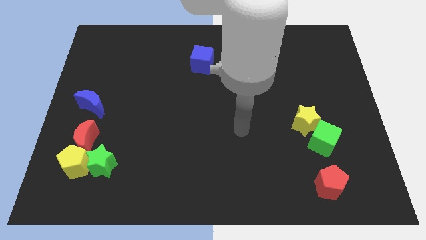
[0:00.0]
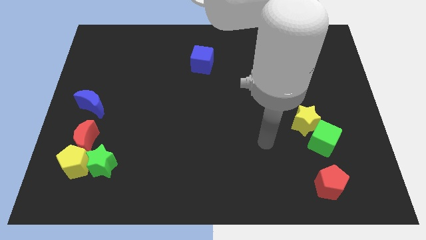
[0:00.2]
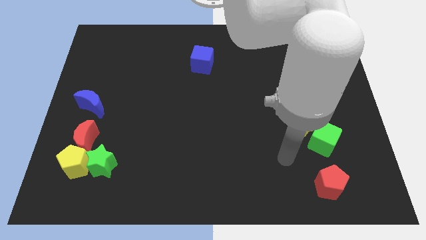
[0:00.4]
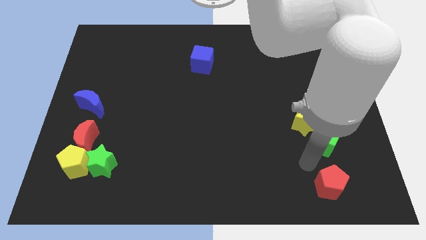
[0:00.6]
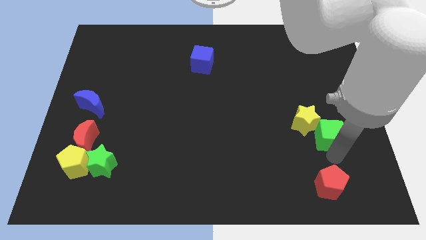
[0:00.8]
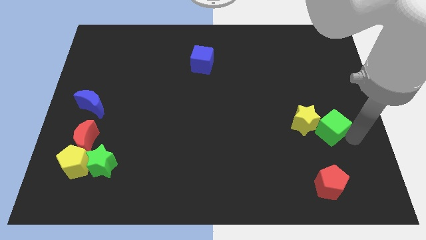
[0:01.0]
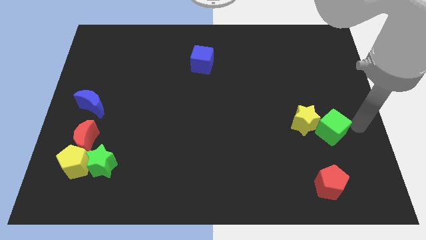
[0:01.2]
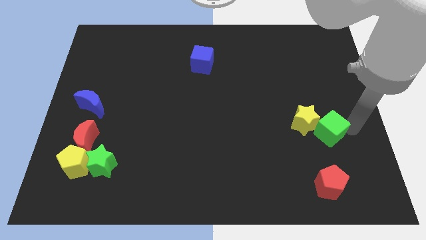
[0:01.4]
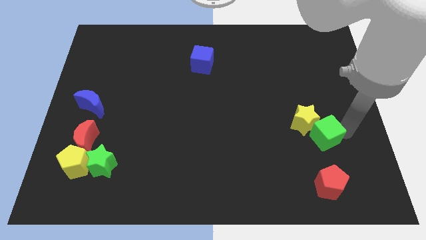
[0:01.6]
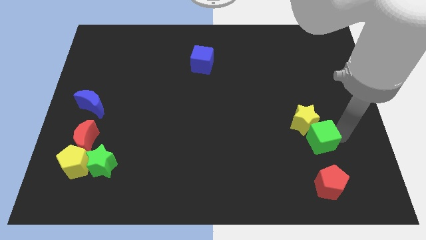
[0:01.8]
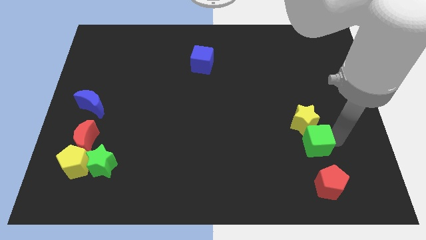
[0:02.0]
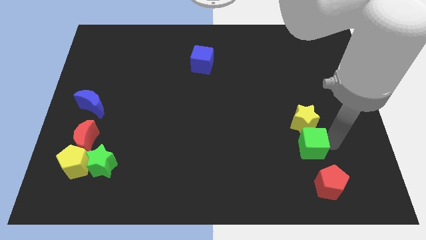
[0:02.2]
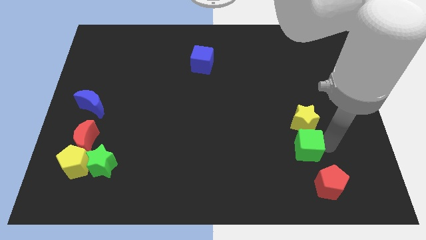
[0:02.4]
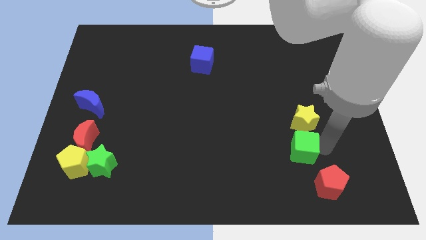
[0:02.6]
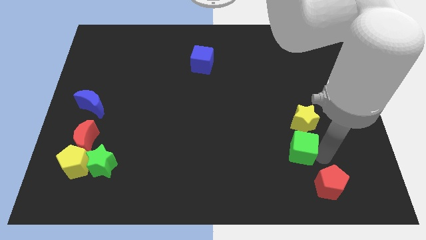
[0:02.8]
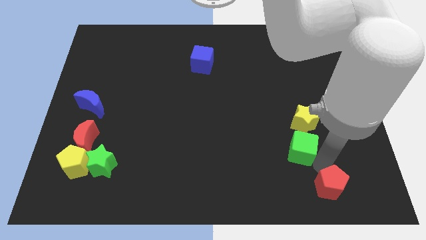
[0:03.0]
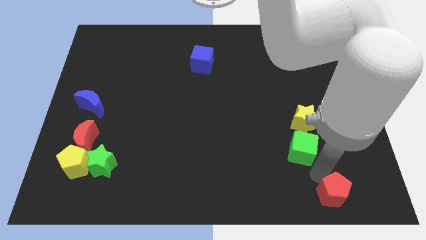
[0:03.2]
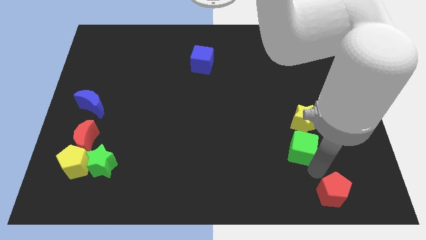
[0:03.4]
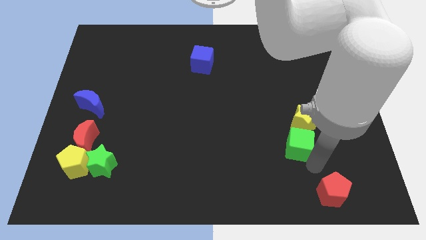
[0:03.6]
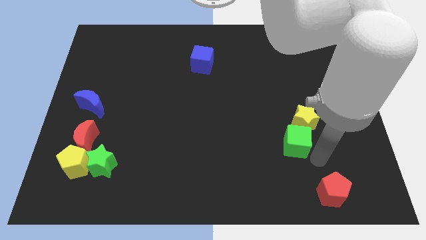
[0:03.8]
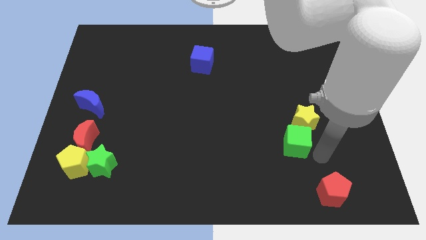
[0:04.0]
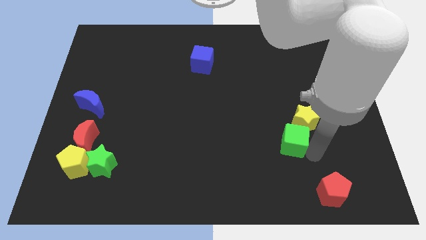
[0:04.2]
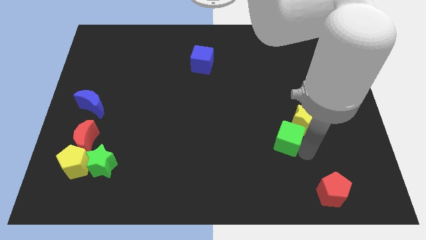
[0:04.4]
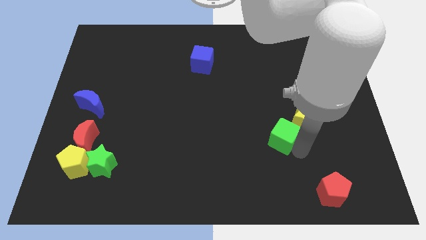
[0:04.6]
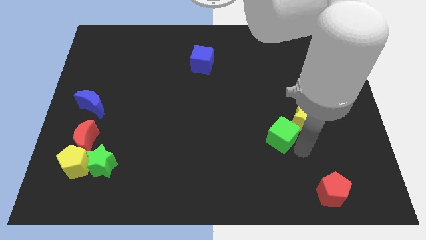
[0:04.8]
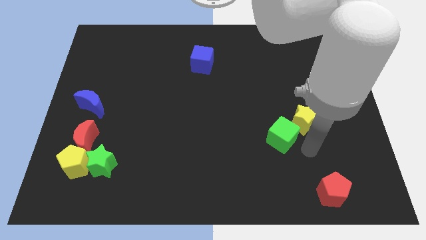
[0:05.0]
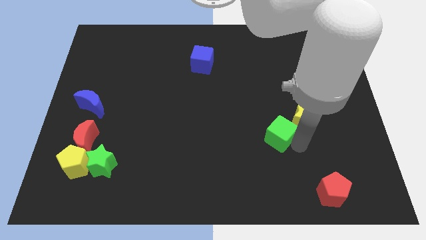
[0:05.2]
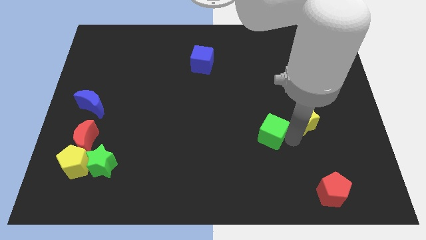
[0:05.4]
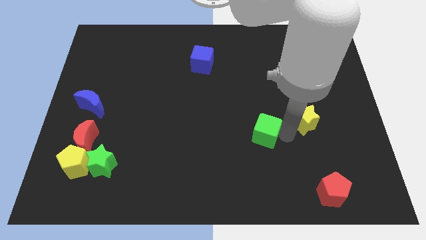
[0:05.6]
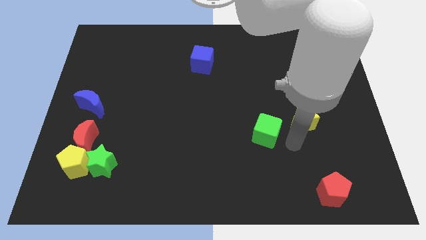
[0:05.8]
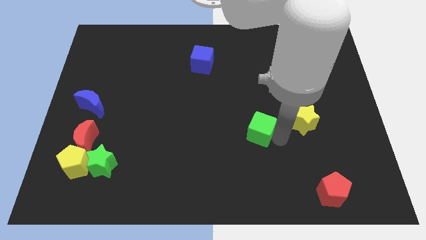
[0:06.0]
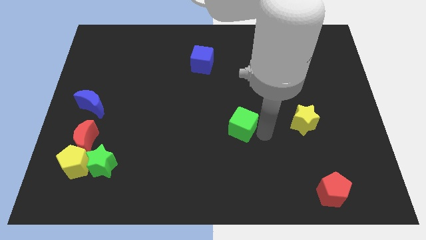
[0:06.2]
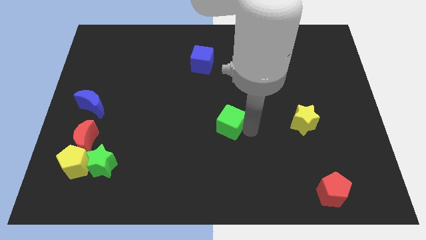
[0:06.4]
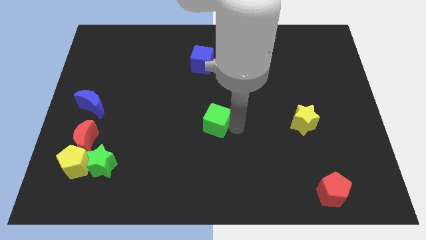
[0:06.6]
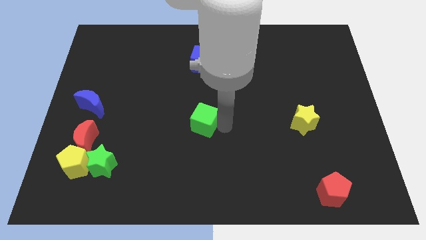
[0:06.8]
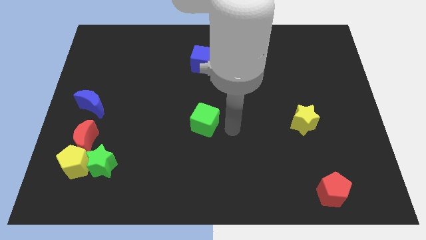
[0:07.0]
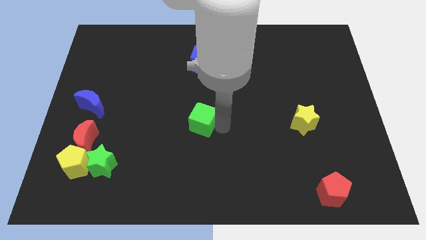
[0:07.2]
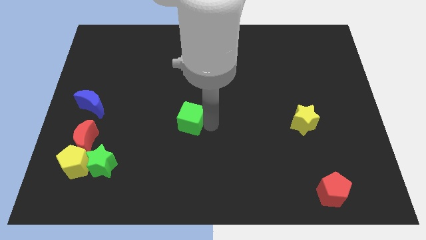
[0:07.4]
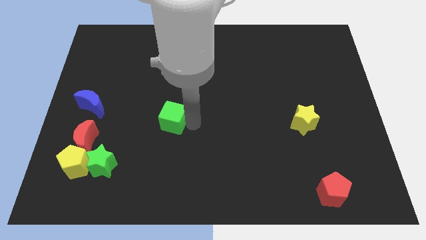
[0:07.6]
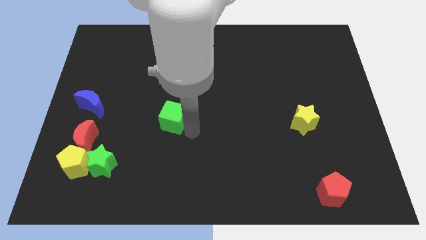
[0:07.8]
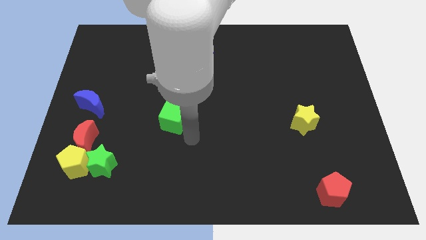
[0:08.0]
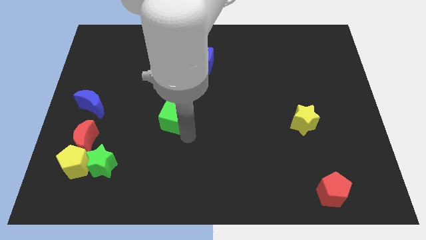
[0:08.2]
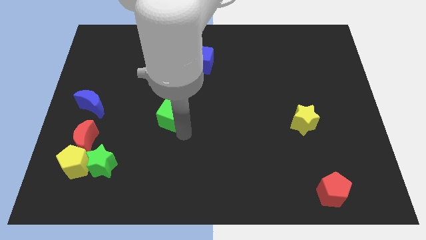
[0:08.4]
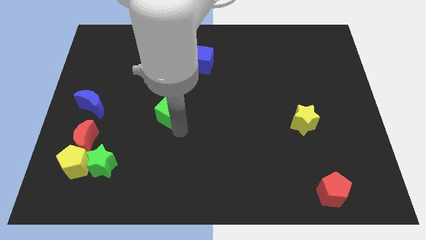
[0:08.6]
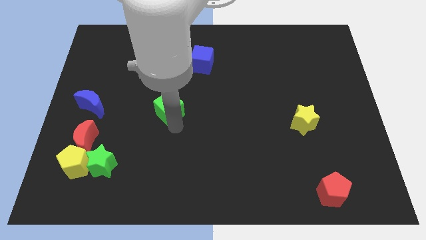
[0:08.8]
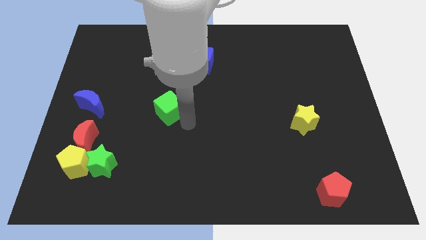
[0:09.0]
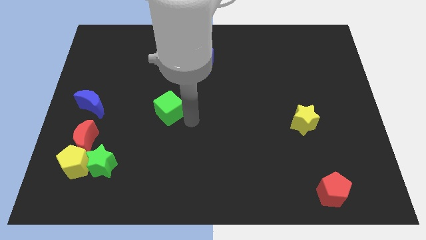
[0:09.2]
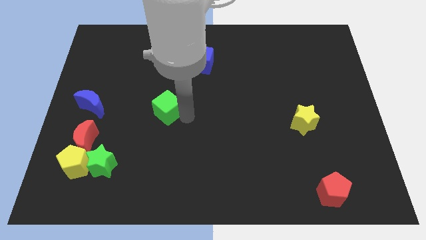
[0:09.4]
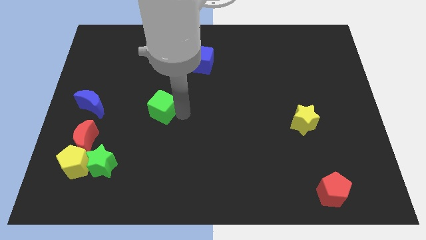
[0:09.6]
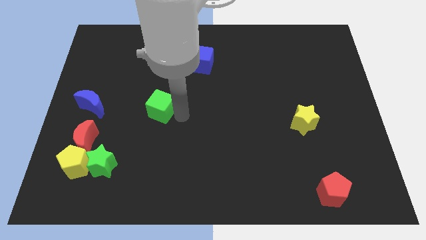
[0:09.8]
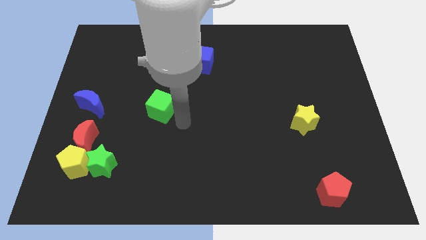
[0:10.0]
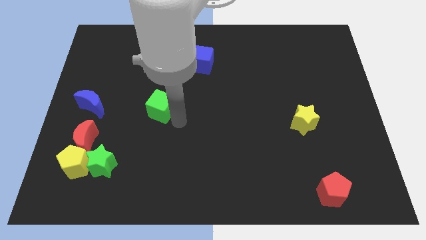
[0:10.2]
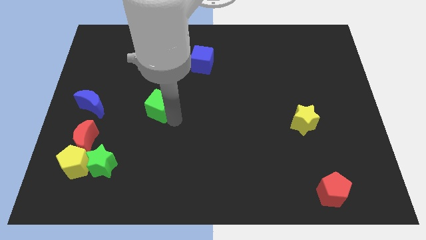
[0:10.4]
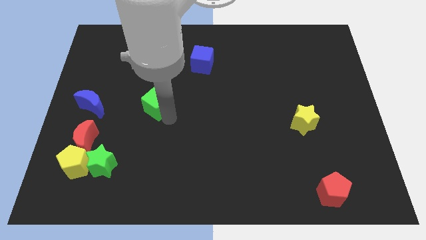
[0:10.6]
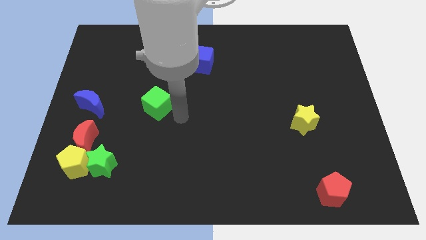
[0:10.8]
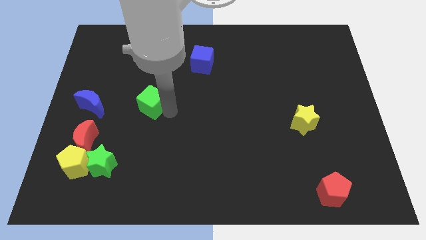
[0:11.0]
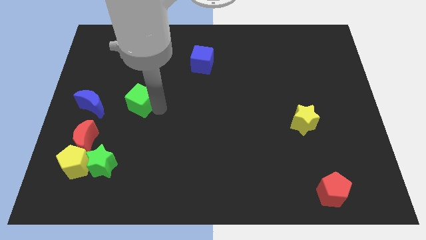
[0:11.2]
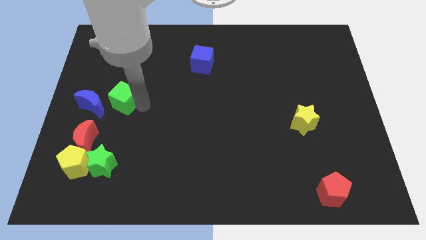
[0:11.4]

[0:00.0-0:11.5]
move the green cube diagonally up and to the right of the blue moon
